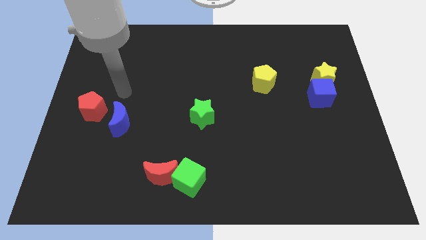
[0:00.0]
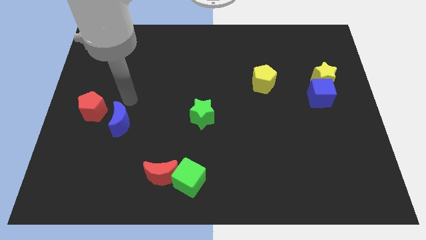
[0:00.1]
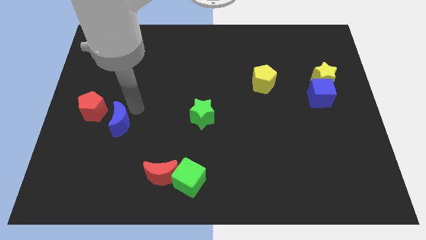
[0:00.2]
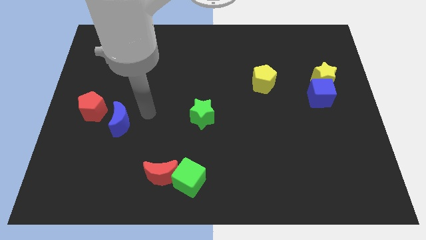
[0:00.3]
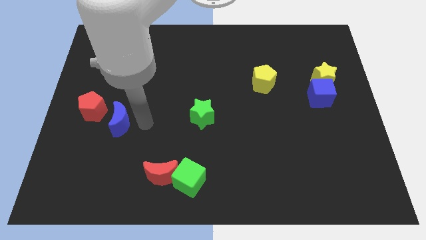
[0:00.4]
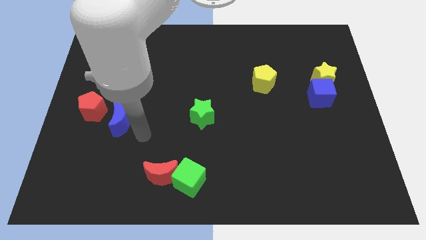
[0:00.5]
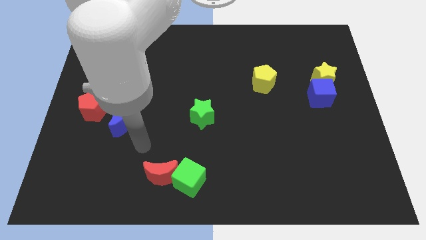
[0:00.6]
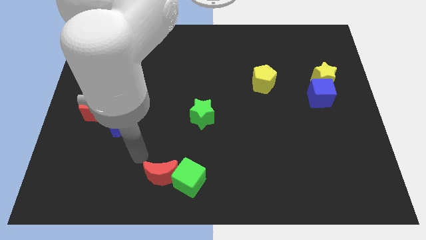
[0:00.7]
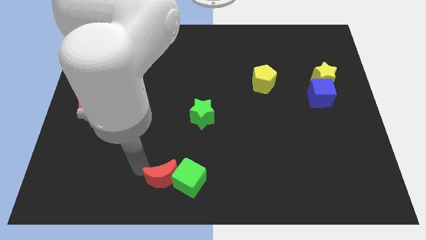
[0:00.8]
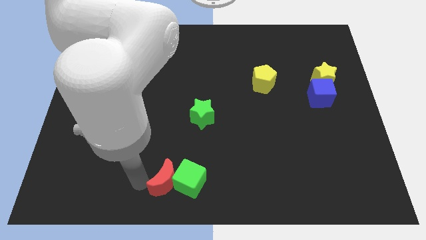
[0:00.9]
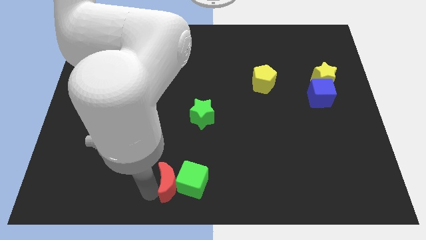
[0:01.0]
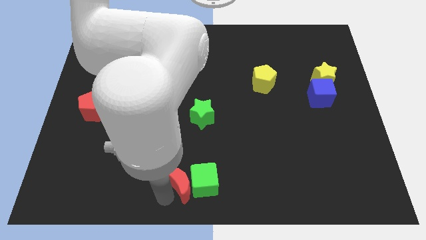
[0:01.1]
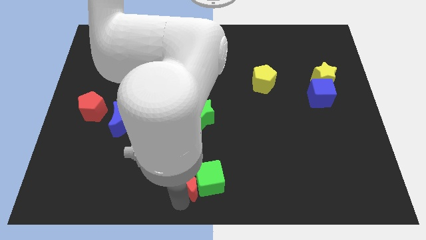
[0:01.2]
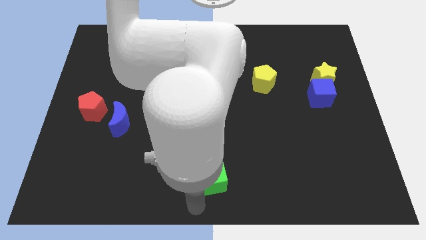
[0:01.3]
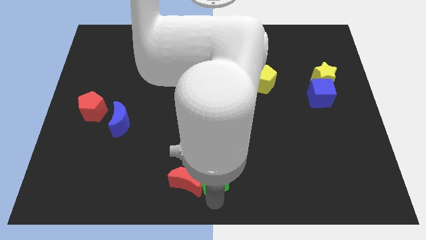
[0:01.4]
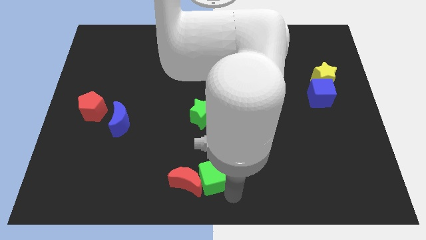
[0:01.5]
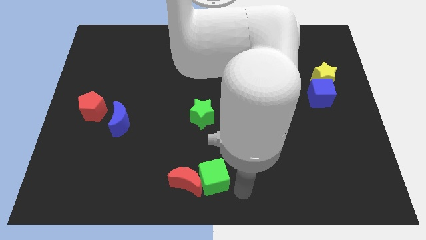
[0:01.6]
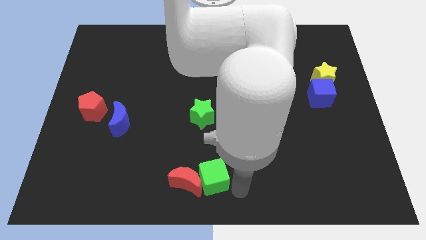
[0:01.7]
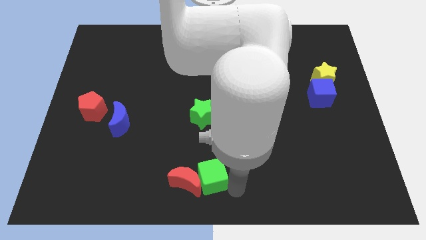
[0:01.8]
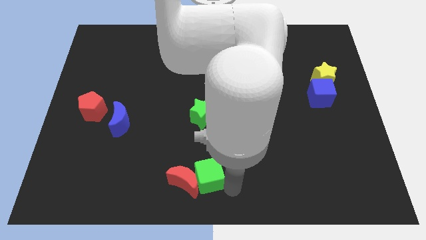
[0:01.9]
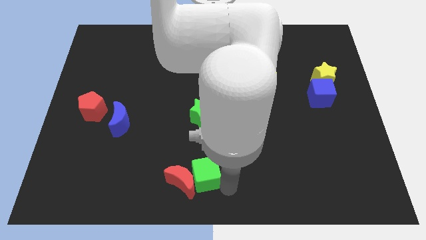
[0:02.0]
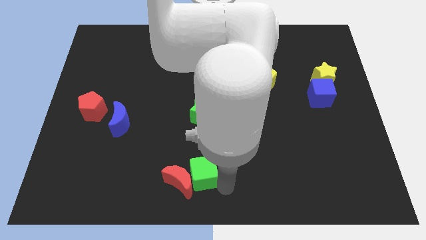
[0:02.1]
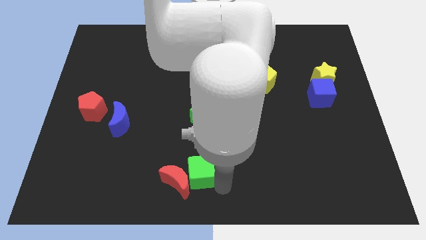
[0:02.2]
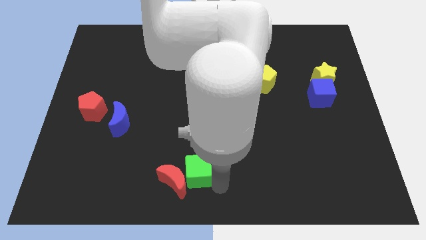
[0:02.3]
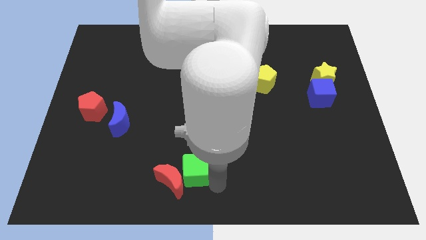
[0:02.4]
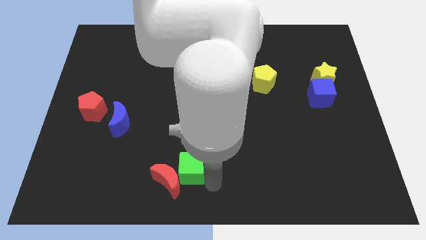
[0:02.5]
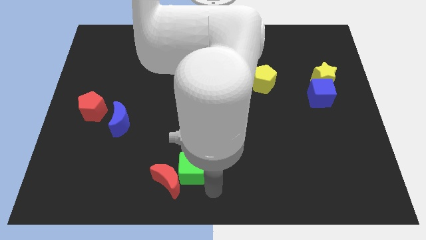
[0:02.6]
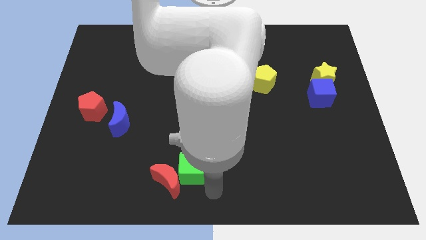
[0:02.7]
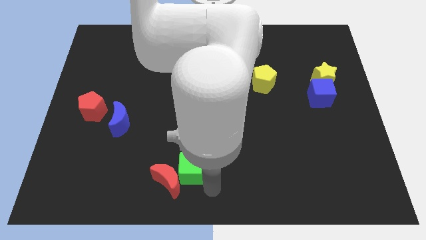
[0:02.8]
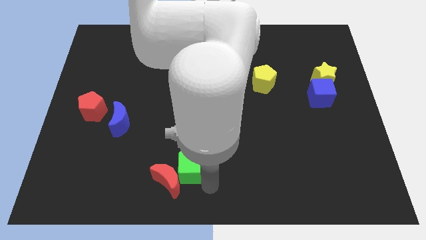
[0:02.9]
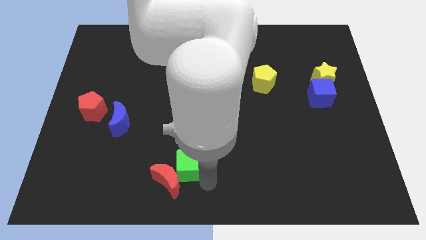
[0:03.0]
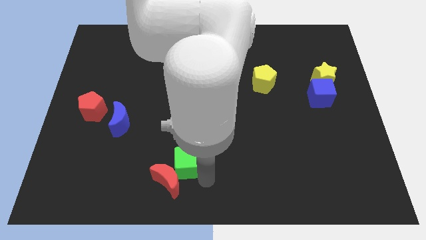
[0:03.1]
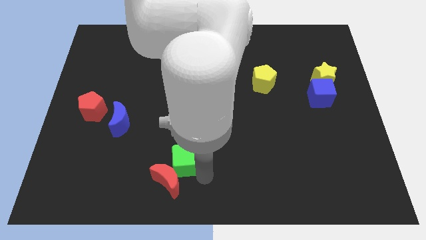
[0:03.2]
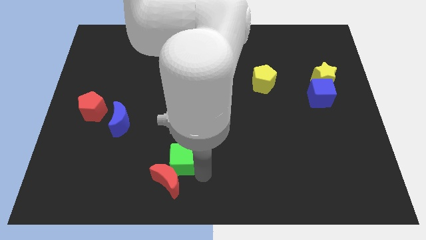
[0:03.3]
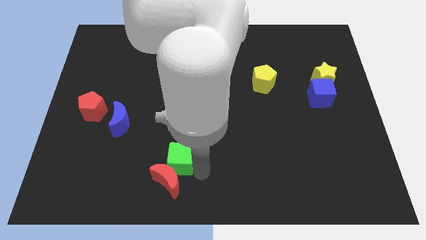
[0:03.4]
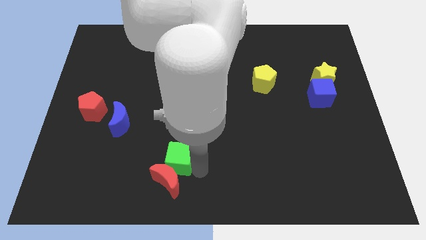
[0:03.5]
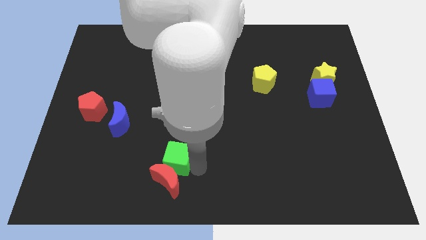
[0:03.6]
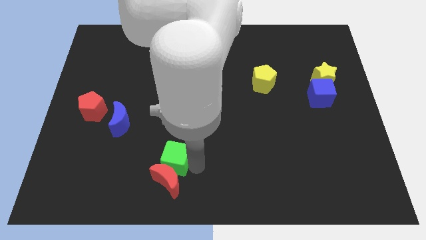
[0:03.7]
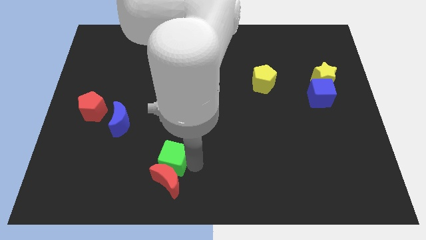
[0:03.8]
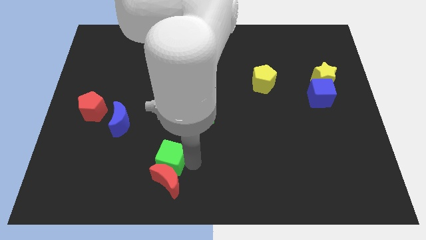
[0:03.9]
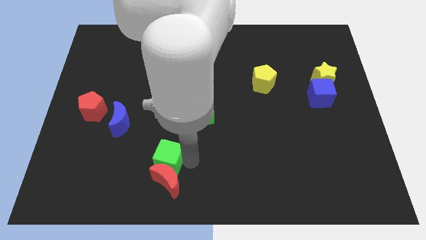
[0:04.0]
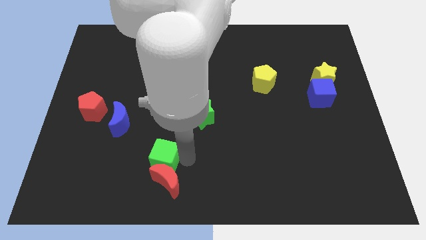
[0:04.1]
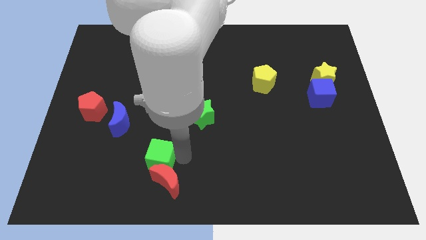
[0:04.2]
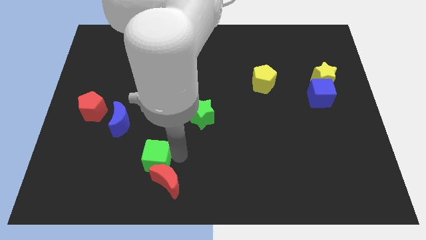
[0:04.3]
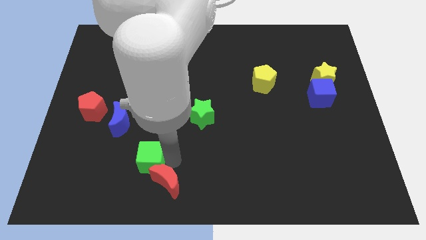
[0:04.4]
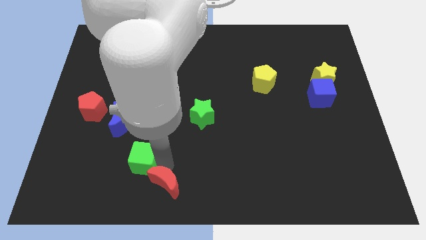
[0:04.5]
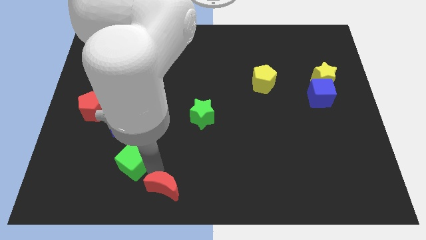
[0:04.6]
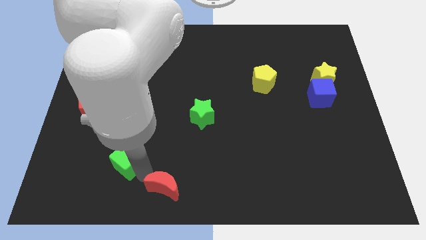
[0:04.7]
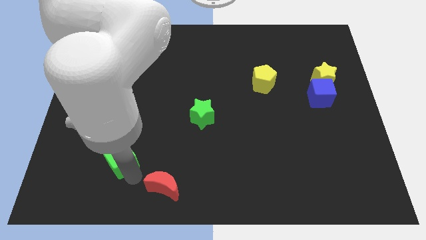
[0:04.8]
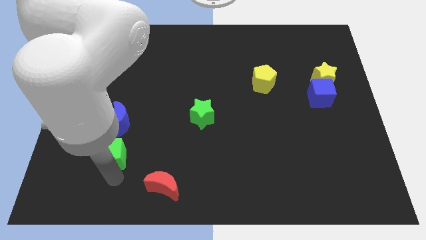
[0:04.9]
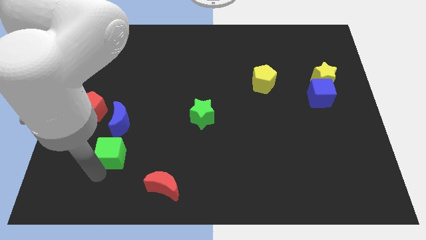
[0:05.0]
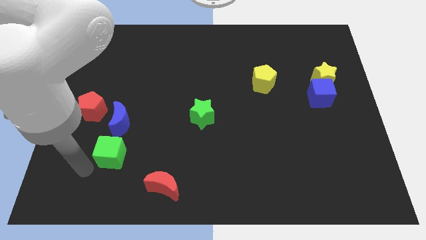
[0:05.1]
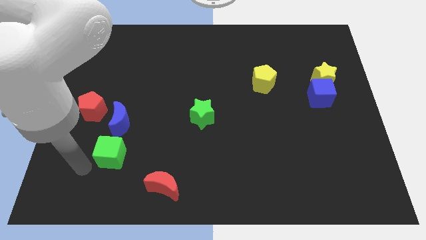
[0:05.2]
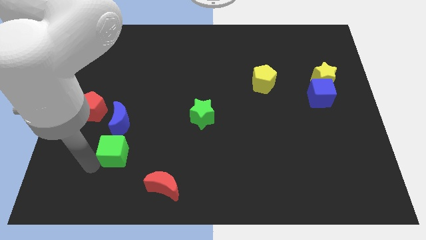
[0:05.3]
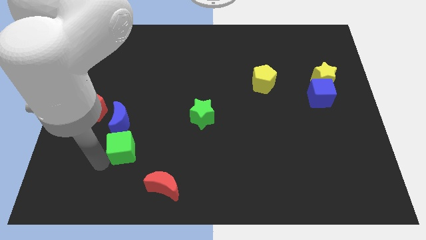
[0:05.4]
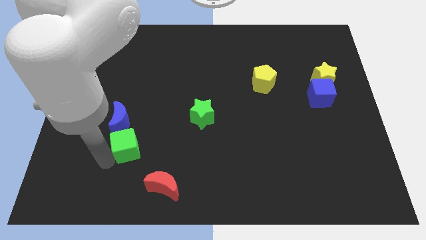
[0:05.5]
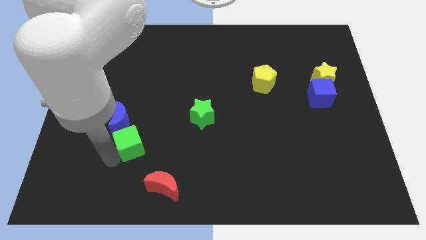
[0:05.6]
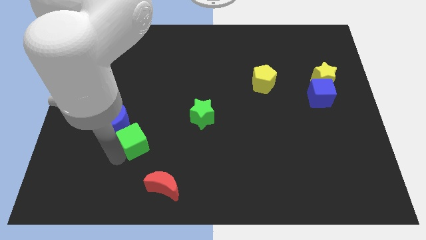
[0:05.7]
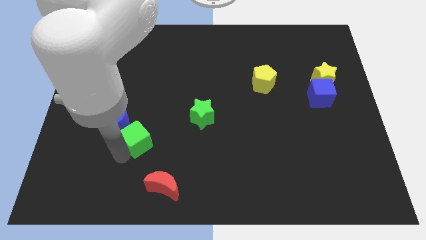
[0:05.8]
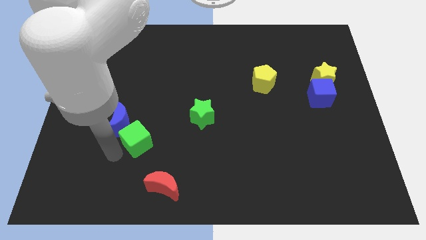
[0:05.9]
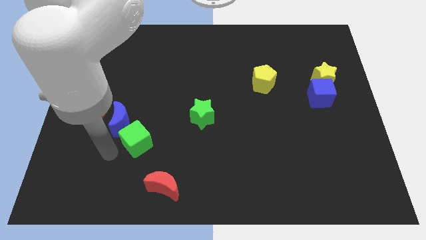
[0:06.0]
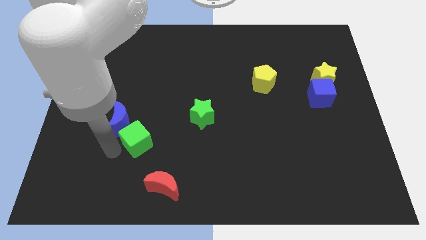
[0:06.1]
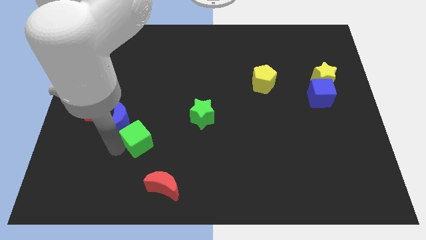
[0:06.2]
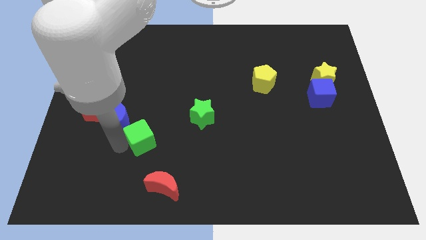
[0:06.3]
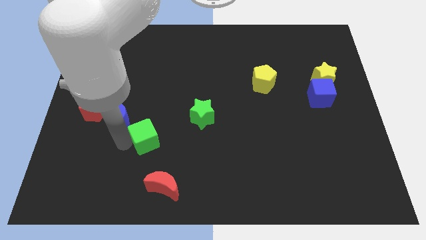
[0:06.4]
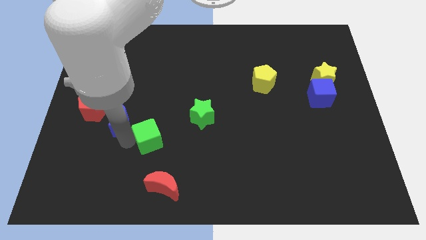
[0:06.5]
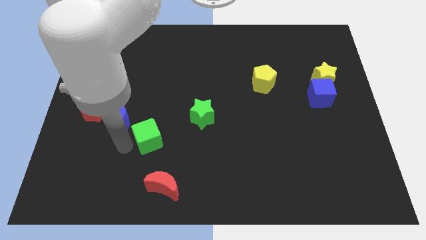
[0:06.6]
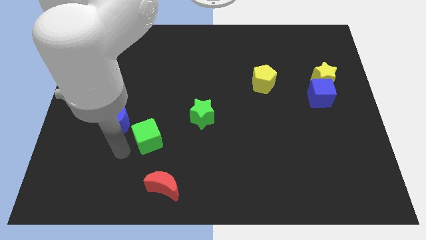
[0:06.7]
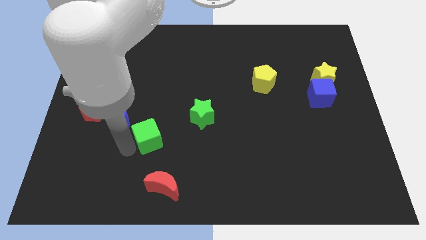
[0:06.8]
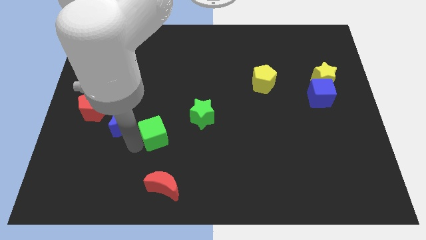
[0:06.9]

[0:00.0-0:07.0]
slightly slide the green cube up

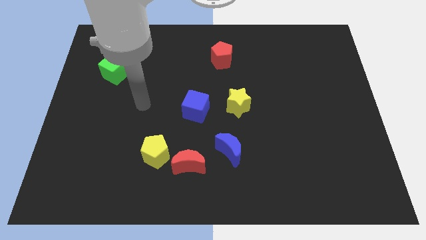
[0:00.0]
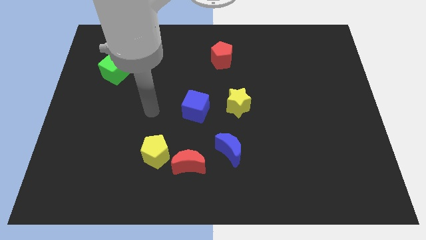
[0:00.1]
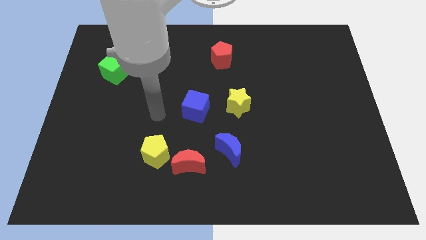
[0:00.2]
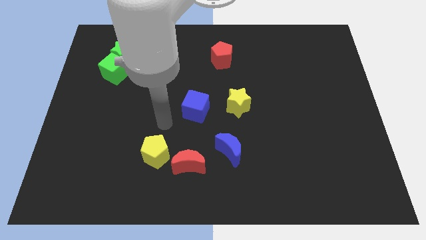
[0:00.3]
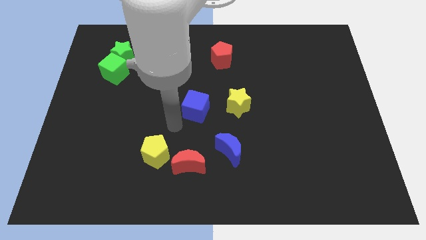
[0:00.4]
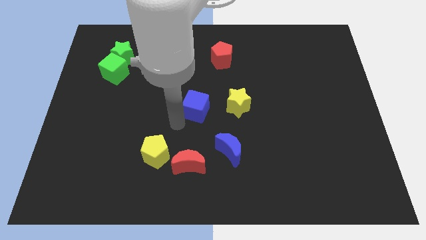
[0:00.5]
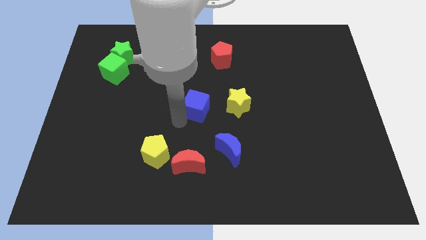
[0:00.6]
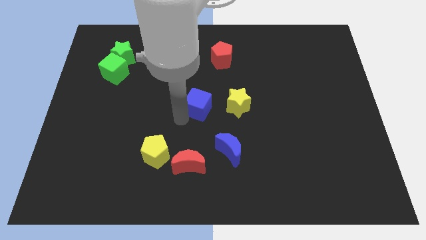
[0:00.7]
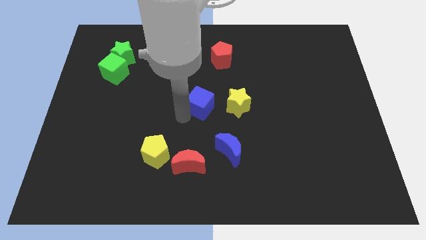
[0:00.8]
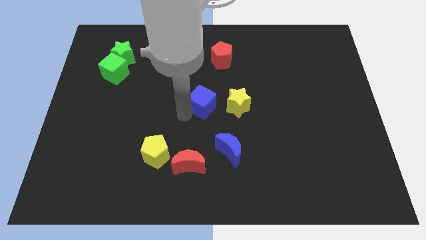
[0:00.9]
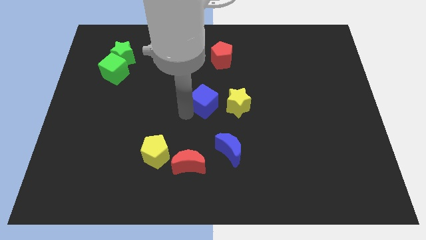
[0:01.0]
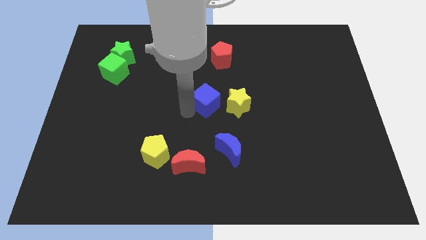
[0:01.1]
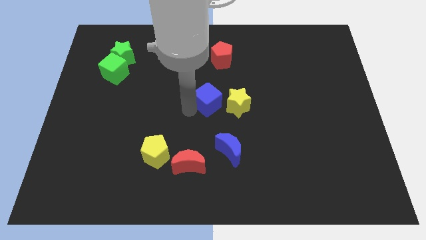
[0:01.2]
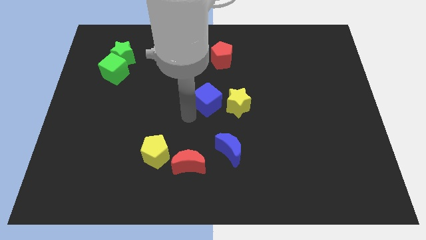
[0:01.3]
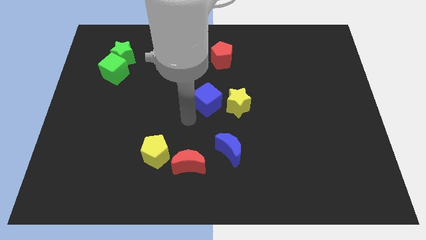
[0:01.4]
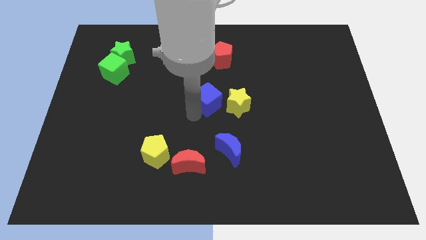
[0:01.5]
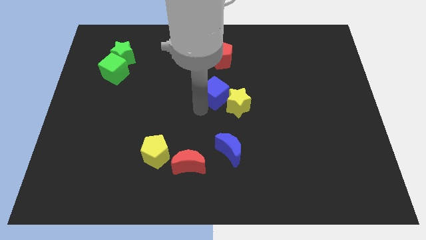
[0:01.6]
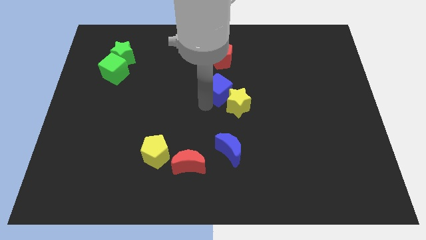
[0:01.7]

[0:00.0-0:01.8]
slightly push the blue cube upwards and right
